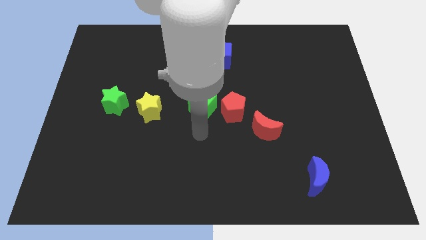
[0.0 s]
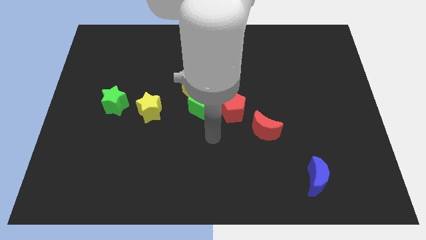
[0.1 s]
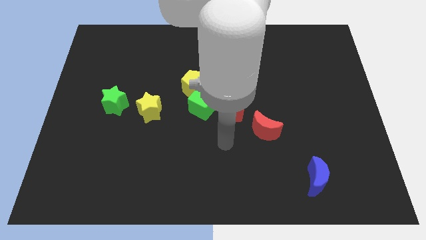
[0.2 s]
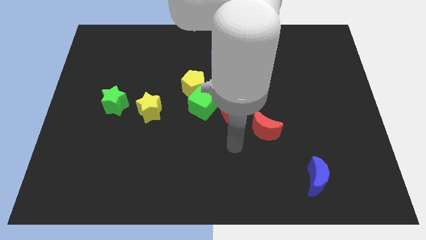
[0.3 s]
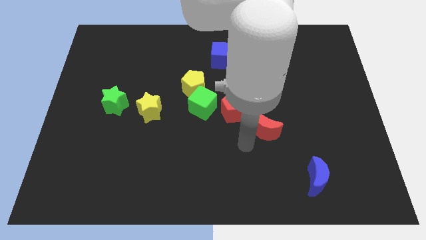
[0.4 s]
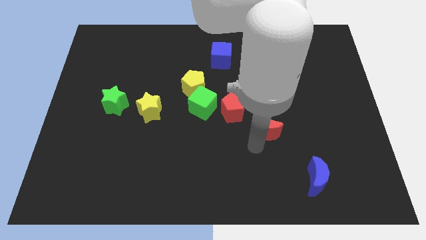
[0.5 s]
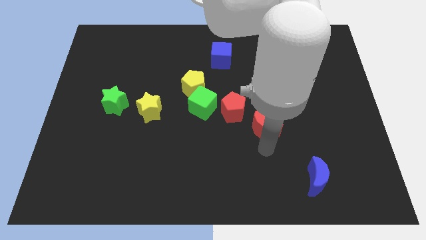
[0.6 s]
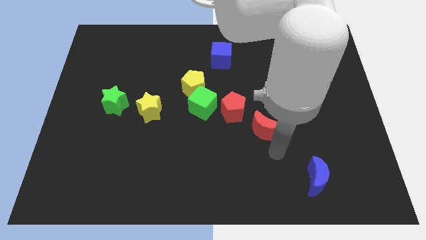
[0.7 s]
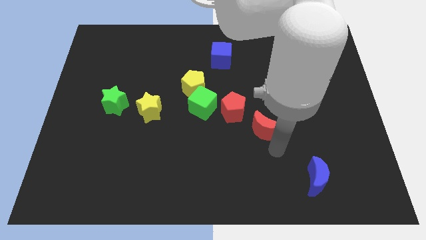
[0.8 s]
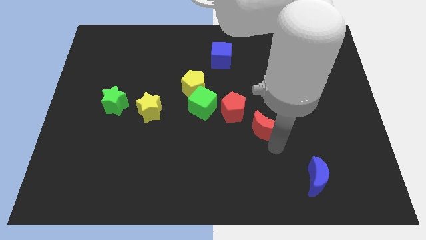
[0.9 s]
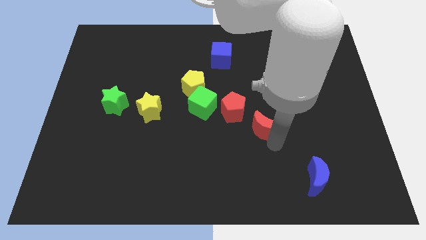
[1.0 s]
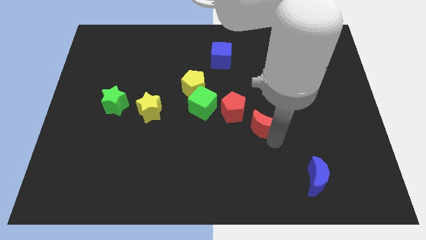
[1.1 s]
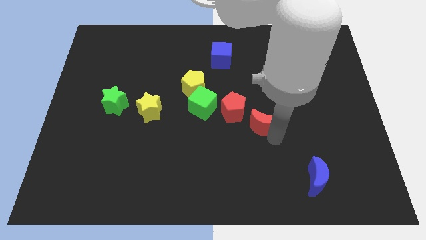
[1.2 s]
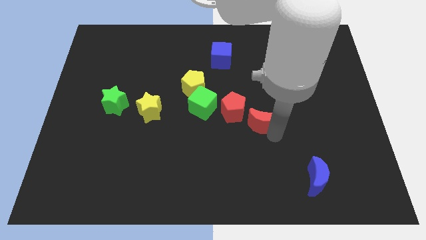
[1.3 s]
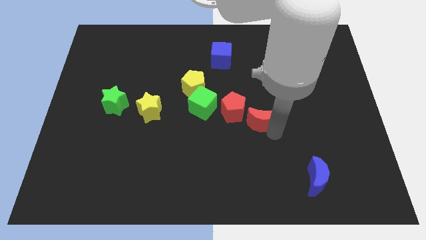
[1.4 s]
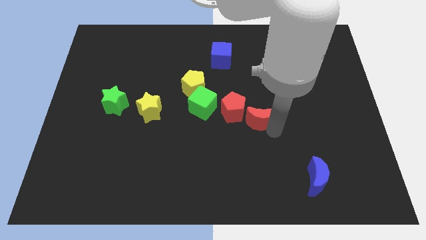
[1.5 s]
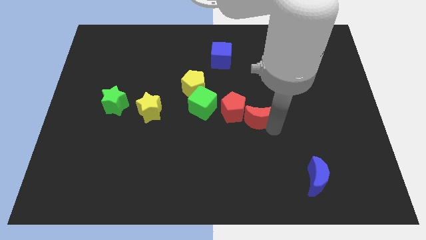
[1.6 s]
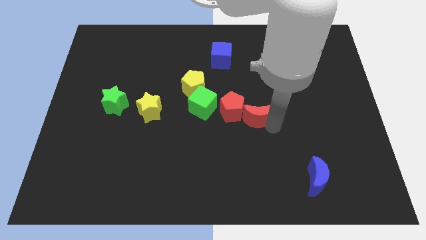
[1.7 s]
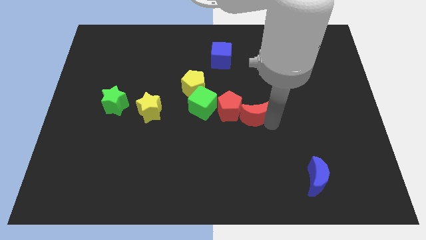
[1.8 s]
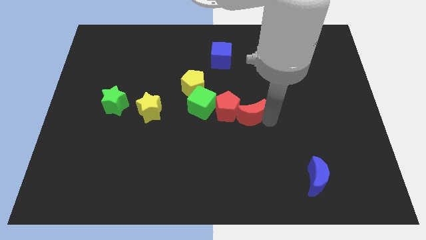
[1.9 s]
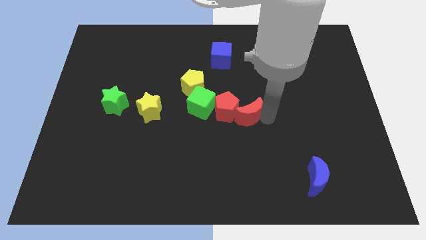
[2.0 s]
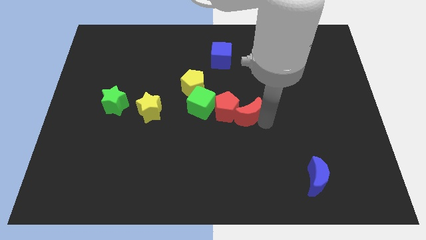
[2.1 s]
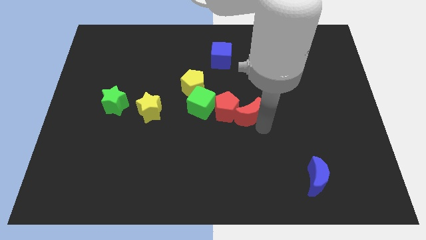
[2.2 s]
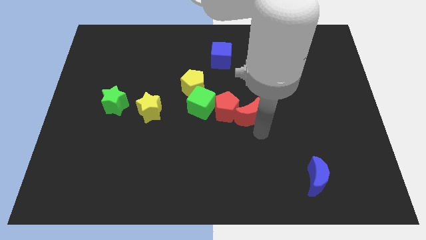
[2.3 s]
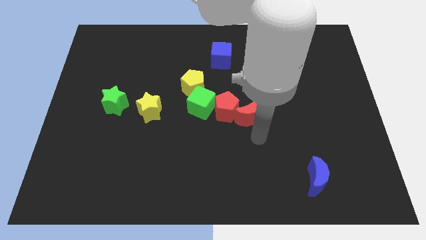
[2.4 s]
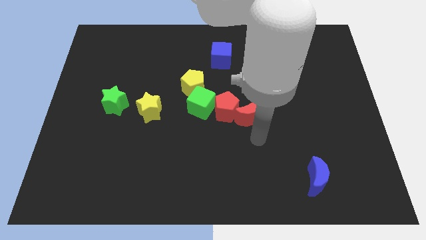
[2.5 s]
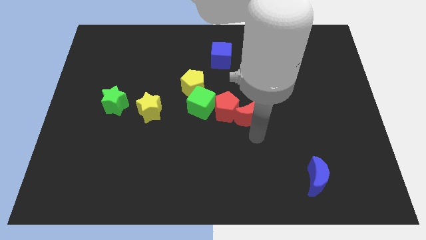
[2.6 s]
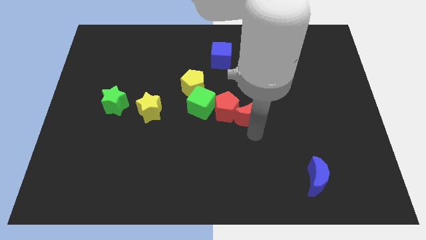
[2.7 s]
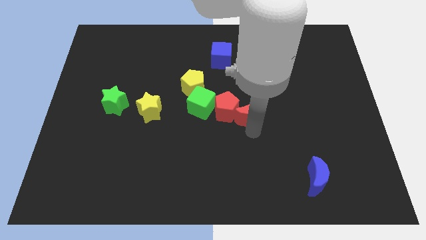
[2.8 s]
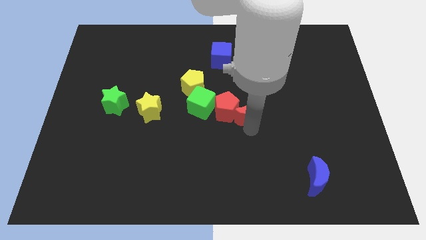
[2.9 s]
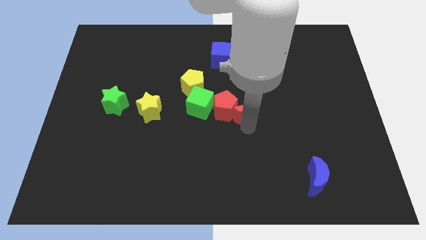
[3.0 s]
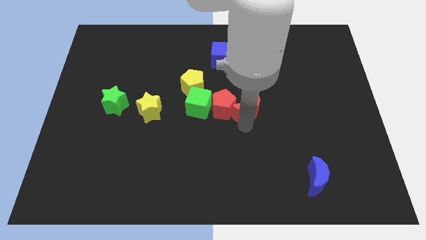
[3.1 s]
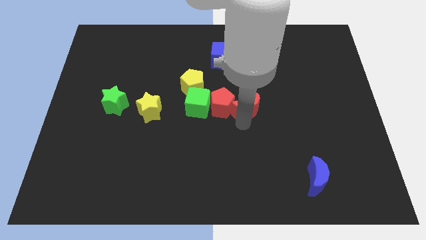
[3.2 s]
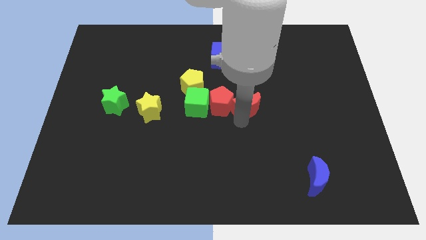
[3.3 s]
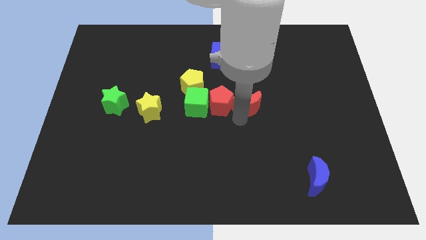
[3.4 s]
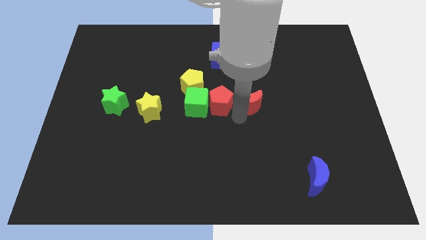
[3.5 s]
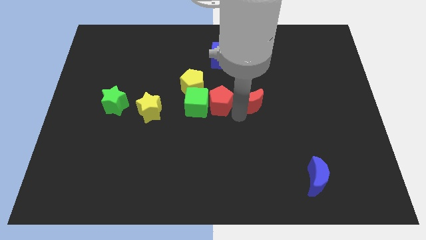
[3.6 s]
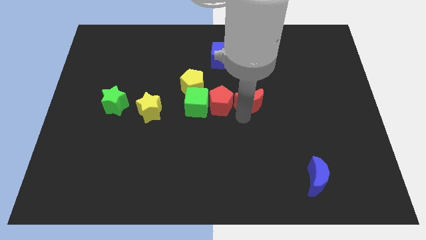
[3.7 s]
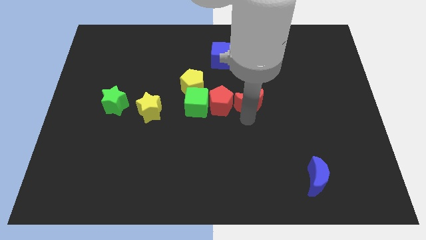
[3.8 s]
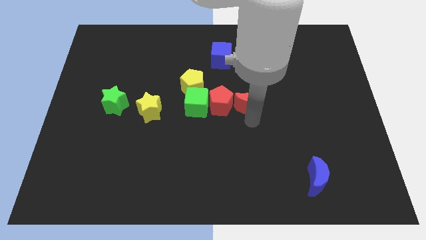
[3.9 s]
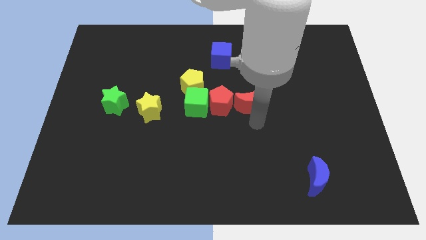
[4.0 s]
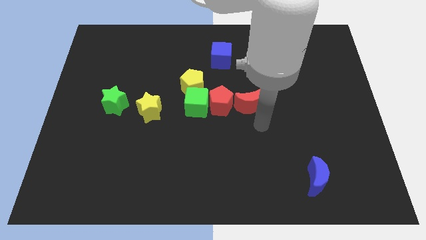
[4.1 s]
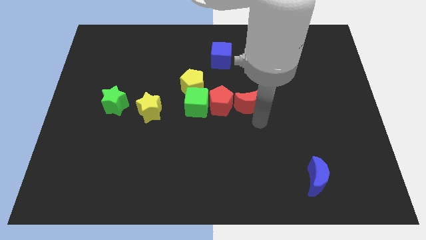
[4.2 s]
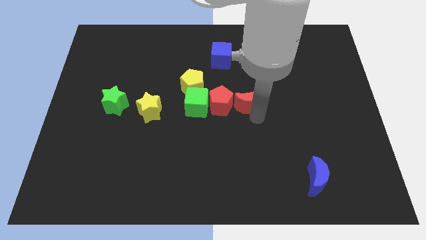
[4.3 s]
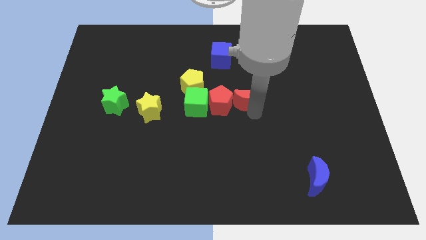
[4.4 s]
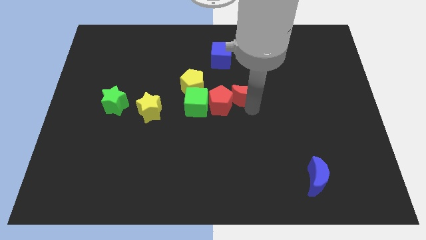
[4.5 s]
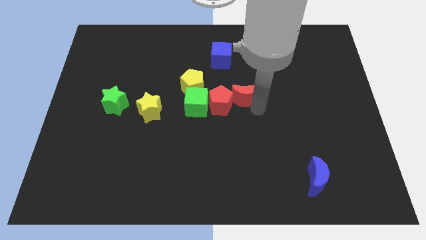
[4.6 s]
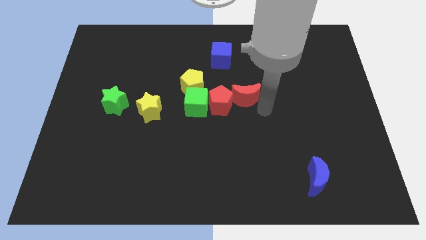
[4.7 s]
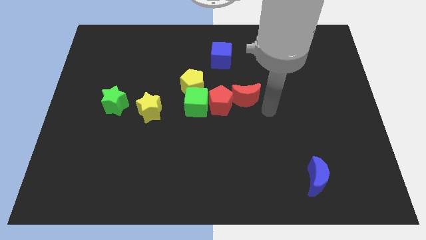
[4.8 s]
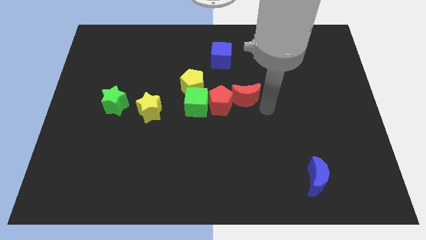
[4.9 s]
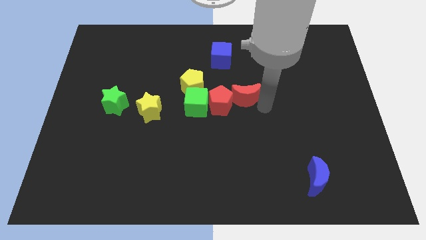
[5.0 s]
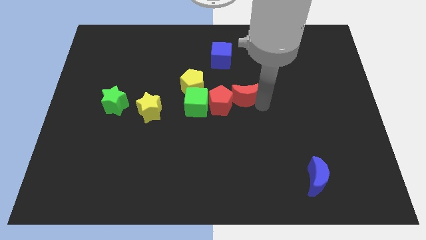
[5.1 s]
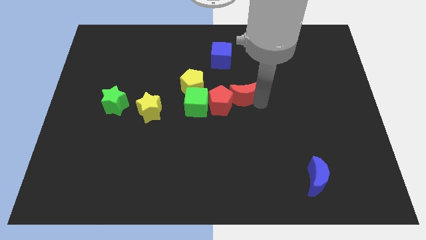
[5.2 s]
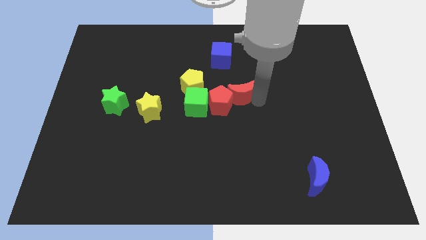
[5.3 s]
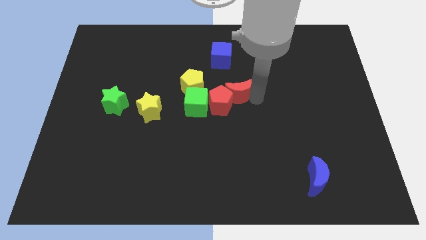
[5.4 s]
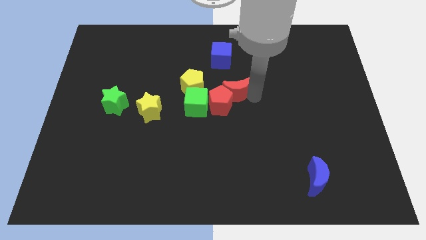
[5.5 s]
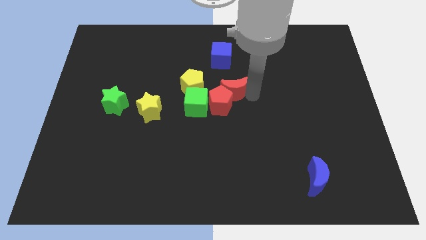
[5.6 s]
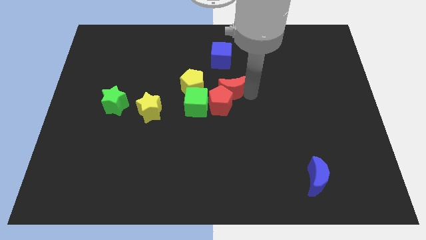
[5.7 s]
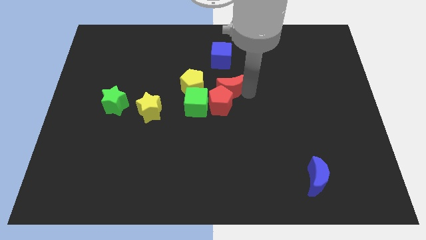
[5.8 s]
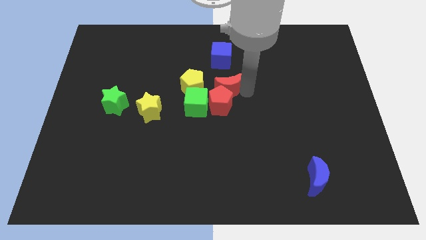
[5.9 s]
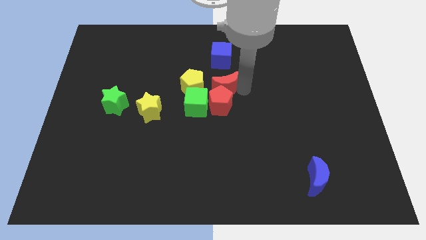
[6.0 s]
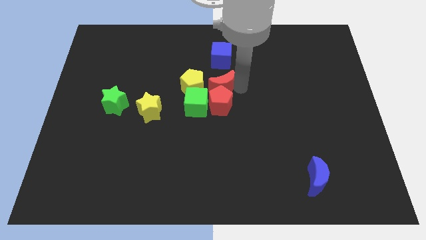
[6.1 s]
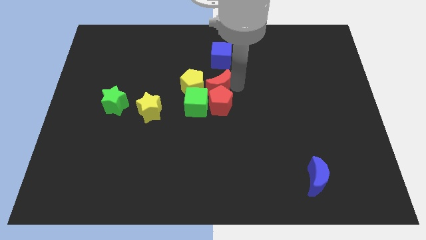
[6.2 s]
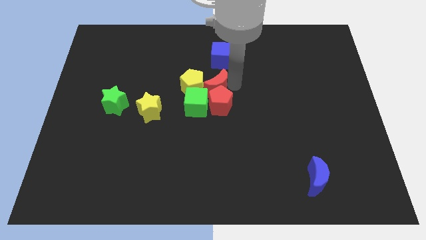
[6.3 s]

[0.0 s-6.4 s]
put the red moon to the top side of the green cube

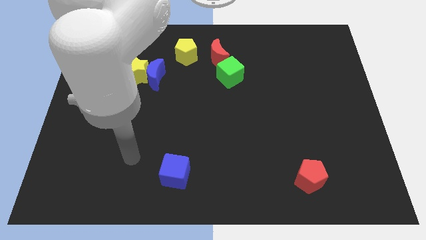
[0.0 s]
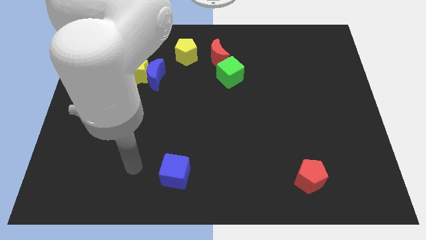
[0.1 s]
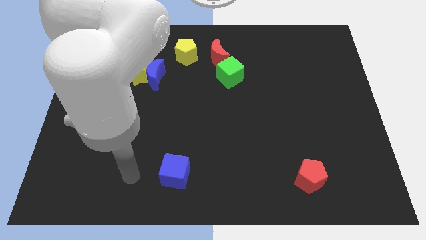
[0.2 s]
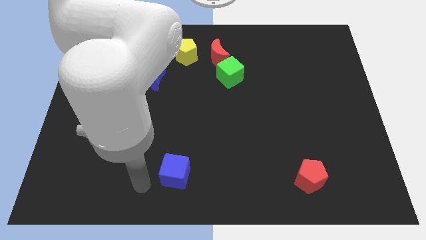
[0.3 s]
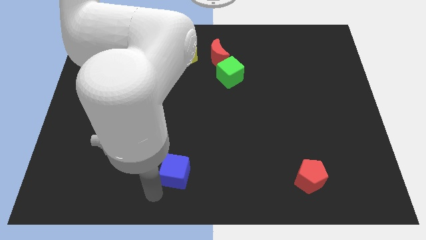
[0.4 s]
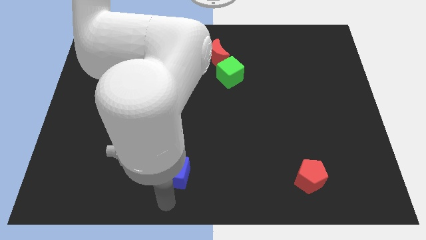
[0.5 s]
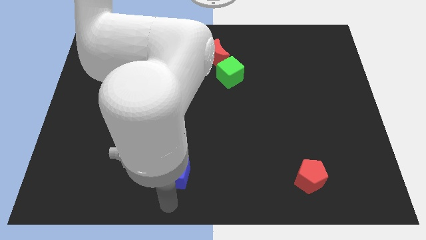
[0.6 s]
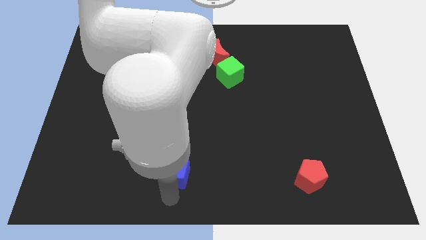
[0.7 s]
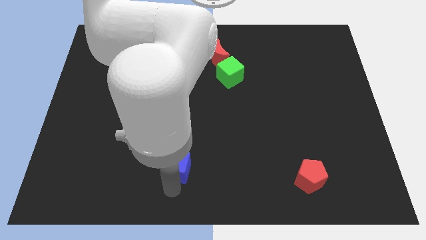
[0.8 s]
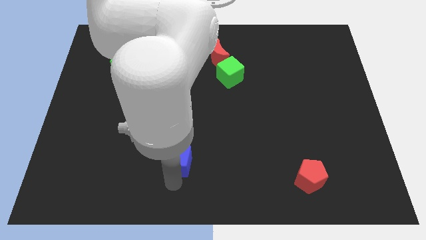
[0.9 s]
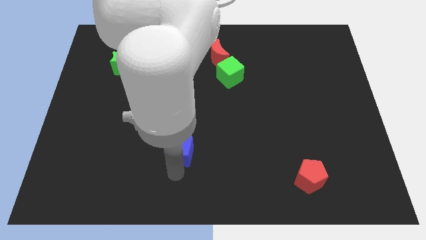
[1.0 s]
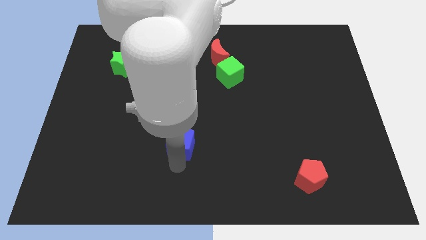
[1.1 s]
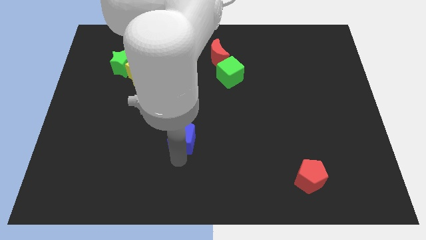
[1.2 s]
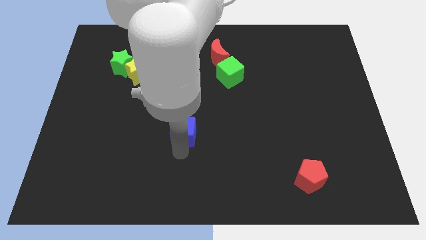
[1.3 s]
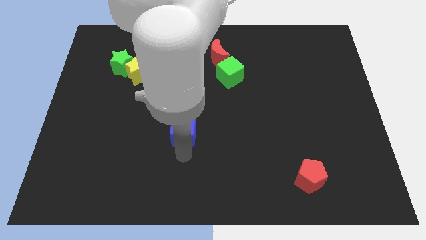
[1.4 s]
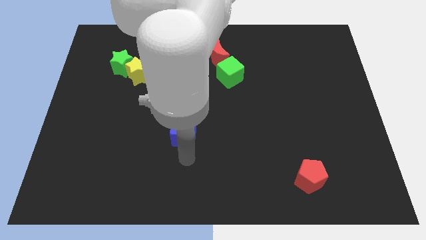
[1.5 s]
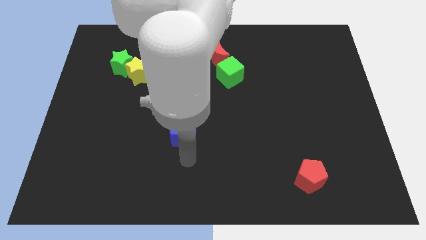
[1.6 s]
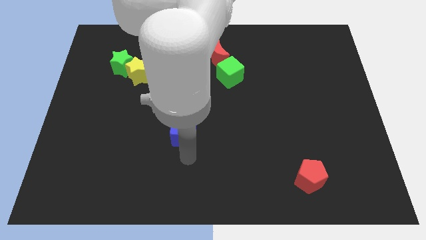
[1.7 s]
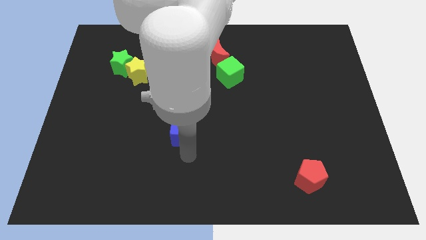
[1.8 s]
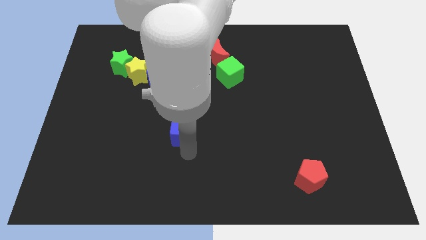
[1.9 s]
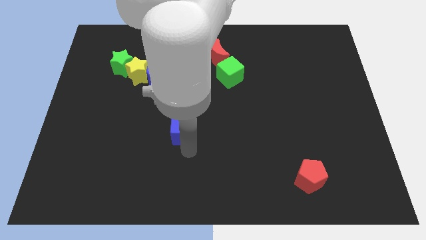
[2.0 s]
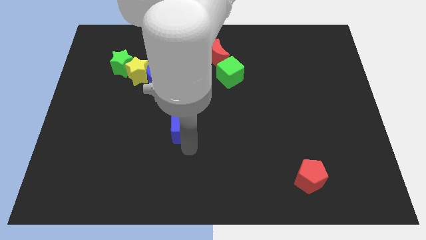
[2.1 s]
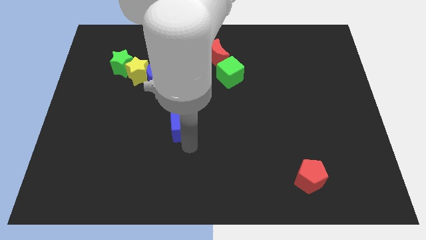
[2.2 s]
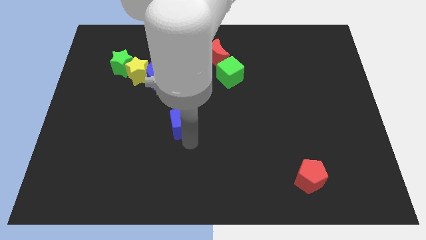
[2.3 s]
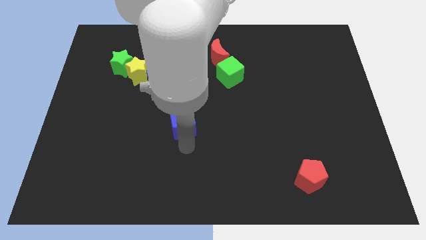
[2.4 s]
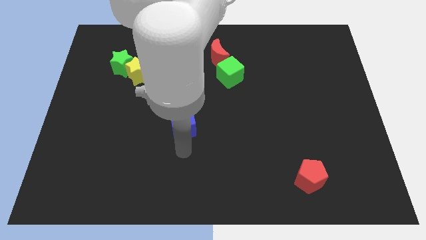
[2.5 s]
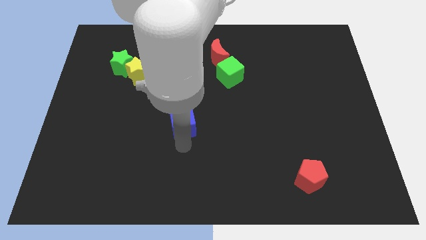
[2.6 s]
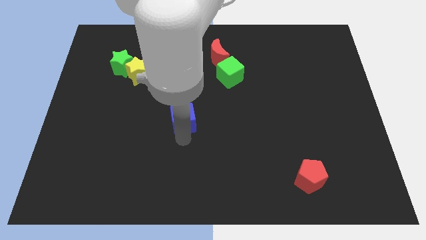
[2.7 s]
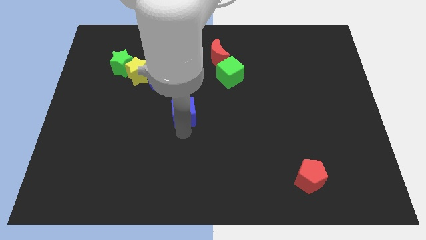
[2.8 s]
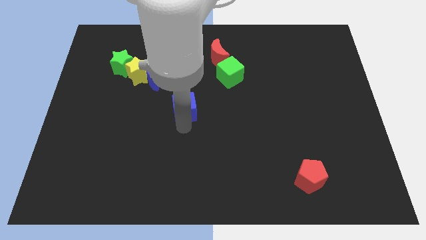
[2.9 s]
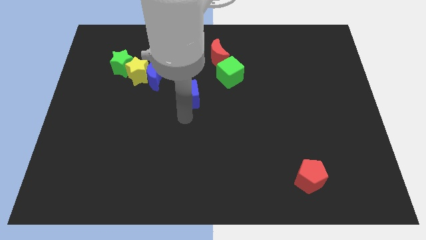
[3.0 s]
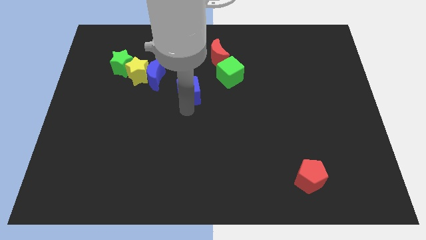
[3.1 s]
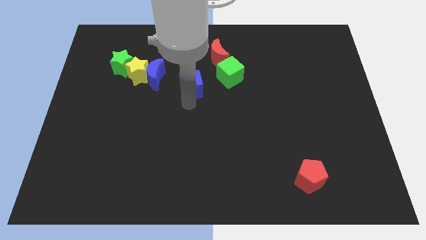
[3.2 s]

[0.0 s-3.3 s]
put the blue cube just right of the yellow star
